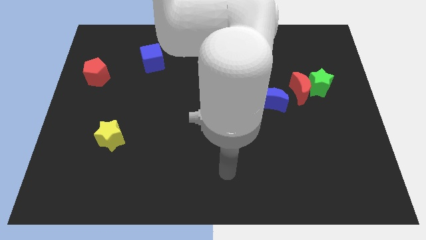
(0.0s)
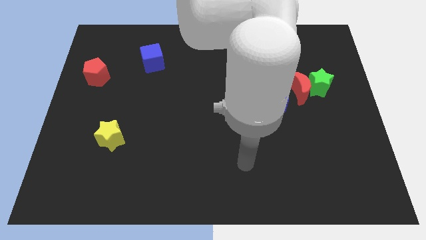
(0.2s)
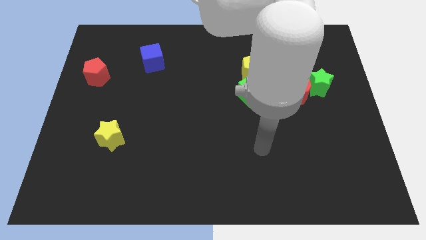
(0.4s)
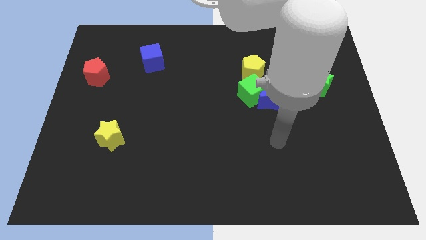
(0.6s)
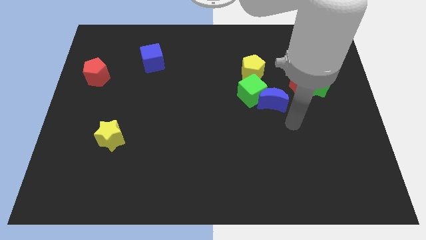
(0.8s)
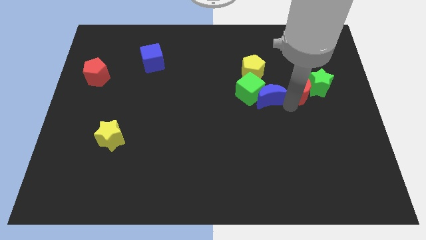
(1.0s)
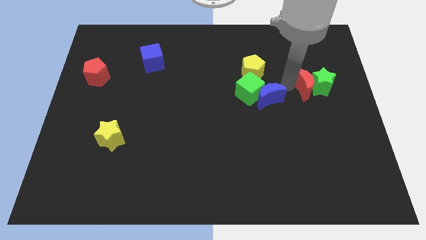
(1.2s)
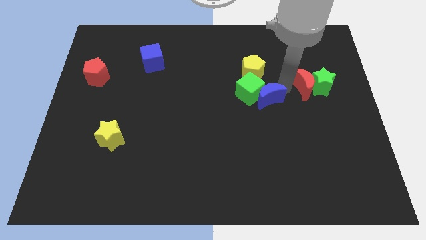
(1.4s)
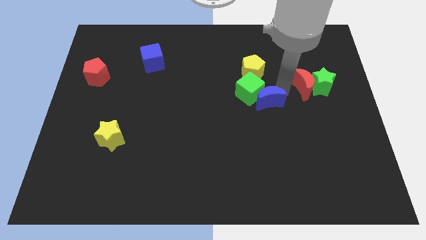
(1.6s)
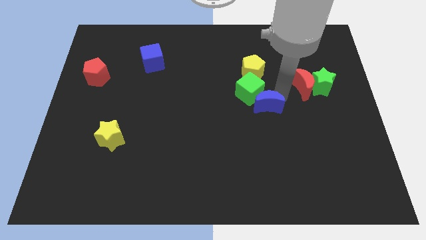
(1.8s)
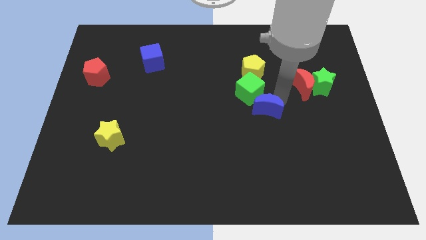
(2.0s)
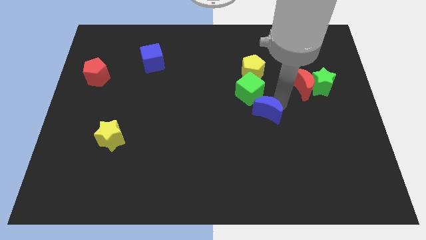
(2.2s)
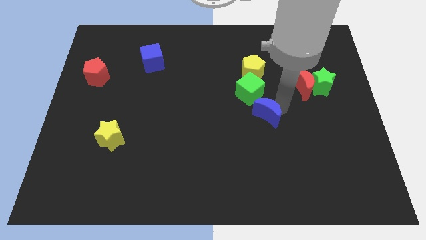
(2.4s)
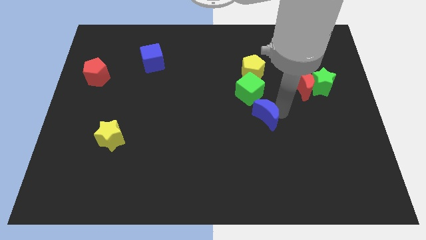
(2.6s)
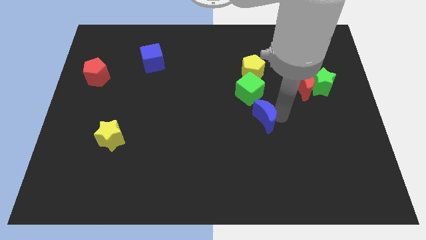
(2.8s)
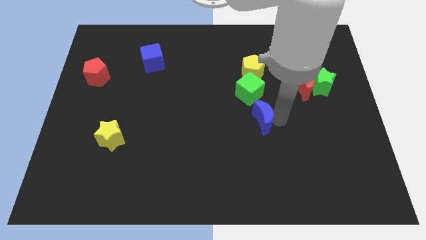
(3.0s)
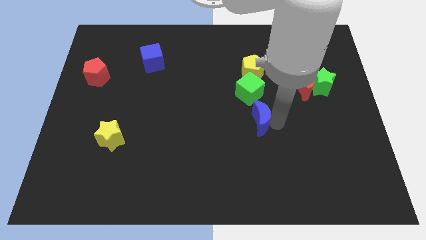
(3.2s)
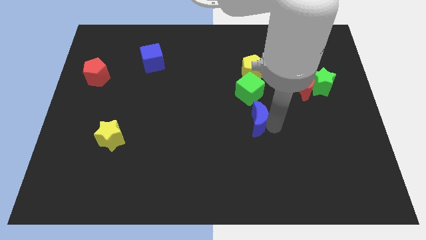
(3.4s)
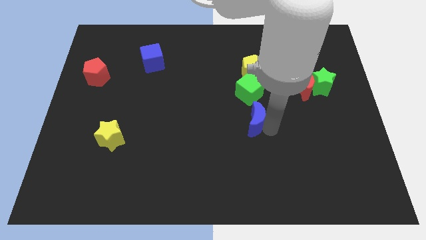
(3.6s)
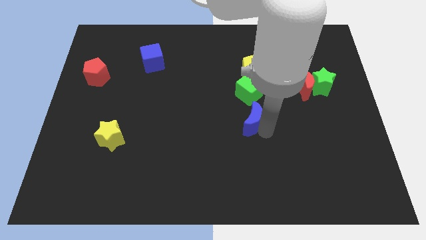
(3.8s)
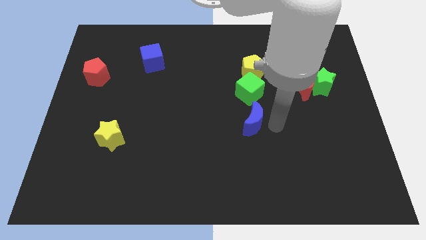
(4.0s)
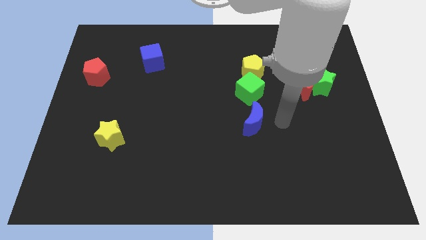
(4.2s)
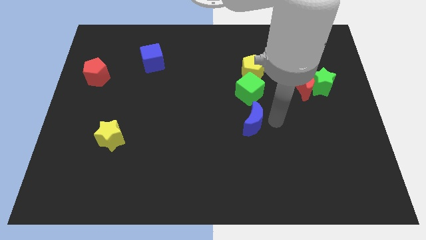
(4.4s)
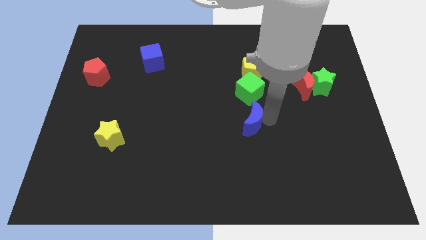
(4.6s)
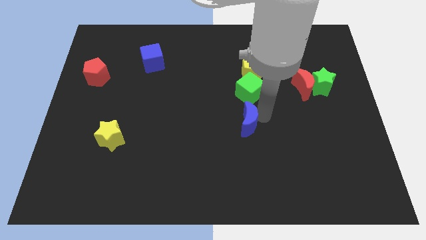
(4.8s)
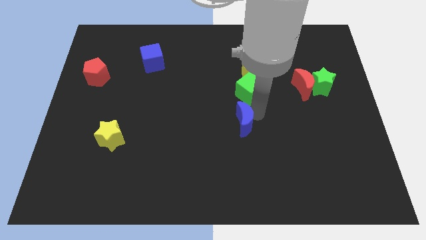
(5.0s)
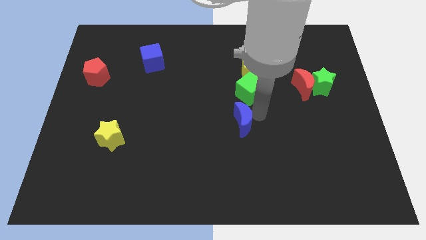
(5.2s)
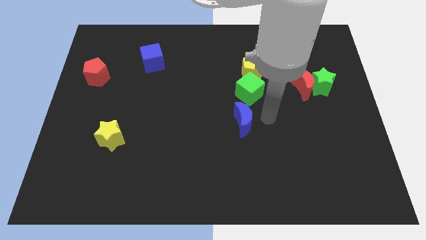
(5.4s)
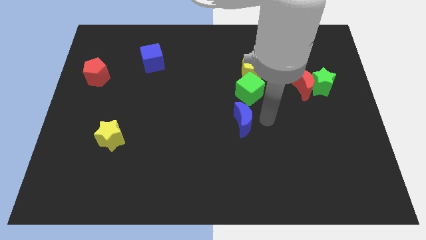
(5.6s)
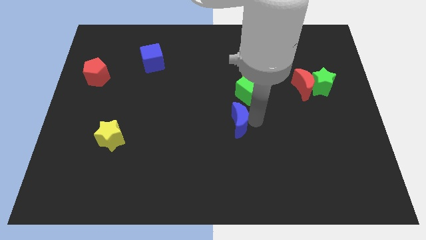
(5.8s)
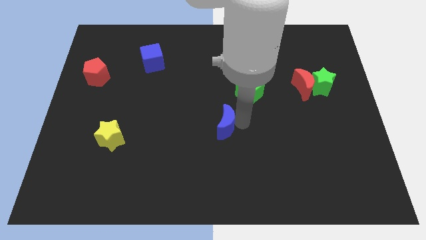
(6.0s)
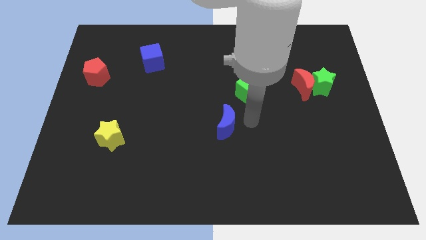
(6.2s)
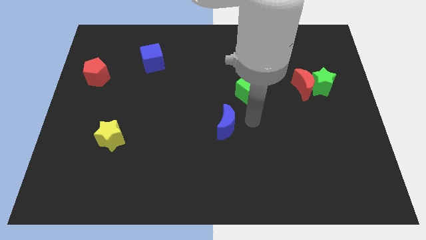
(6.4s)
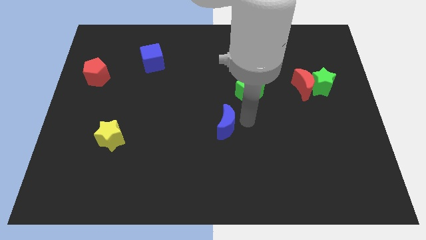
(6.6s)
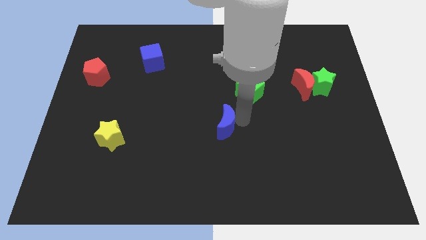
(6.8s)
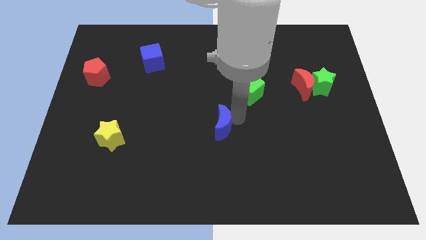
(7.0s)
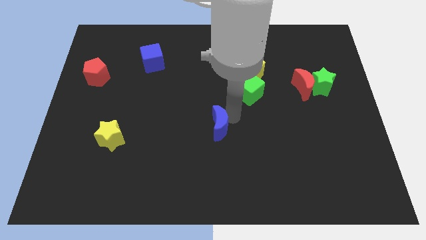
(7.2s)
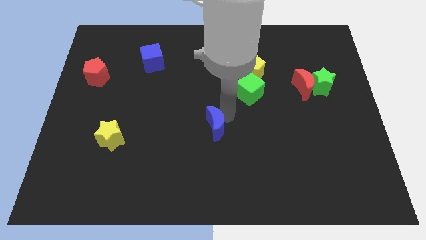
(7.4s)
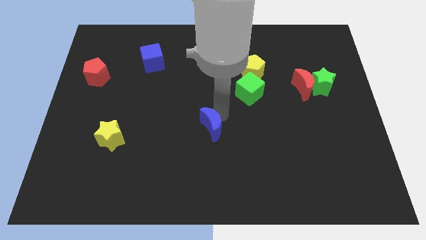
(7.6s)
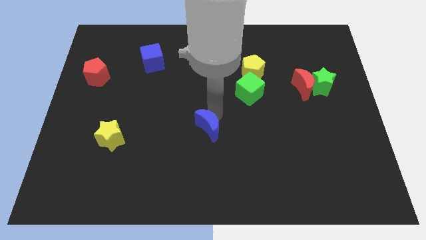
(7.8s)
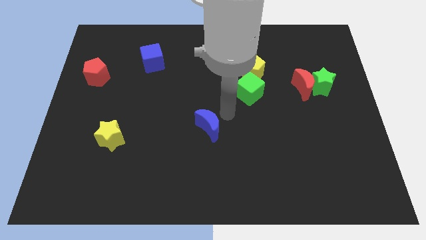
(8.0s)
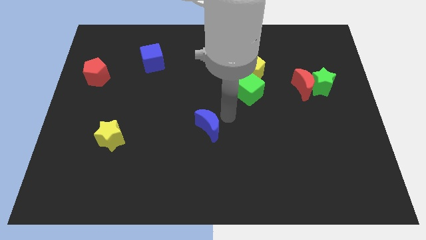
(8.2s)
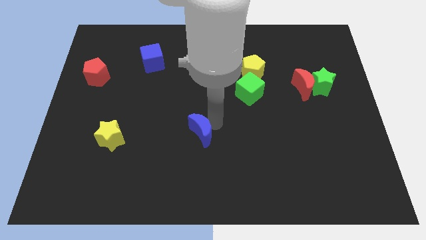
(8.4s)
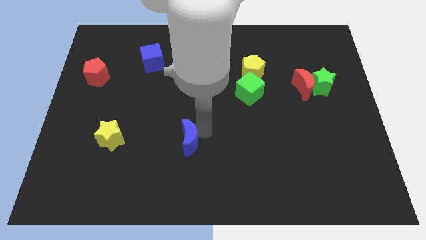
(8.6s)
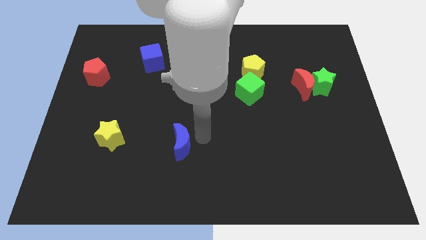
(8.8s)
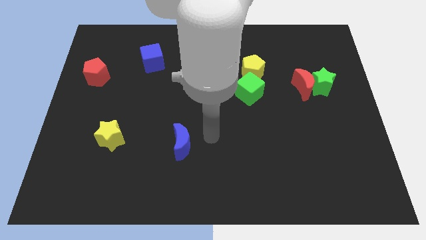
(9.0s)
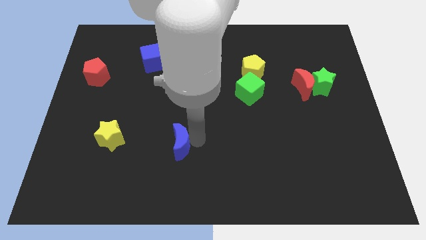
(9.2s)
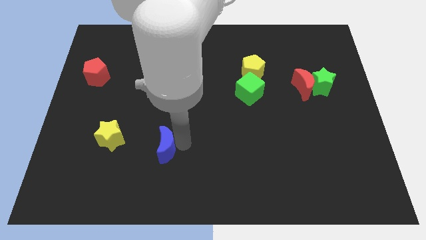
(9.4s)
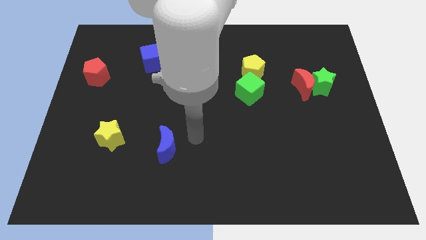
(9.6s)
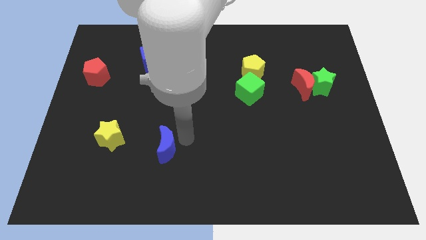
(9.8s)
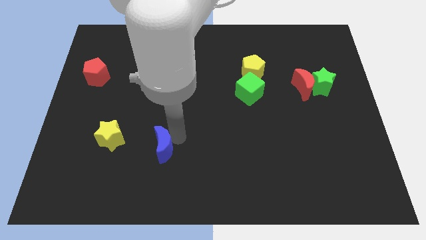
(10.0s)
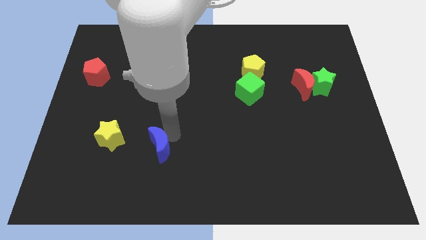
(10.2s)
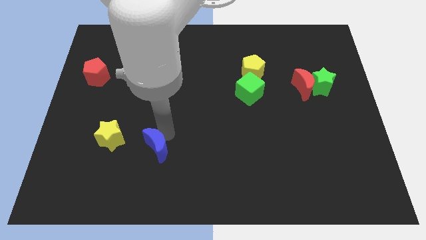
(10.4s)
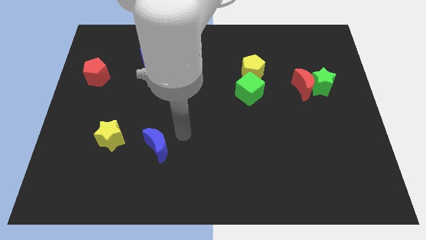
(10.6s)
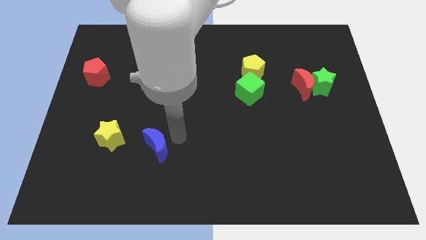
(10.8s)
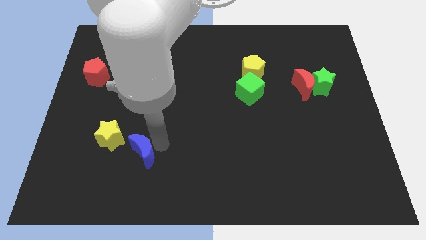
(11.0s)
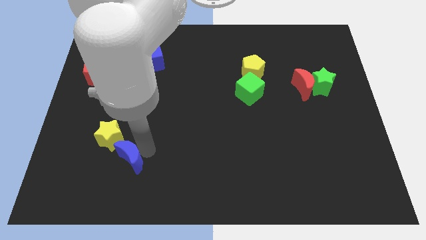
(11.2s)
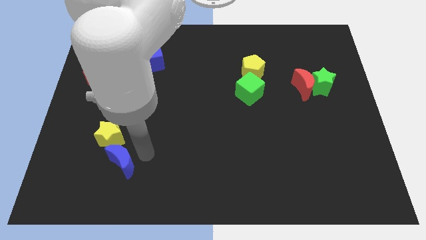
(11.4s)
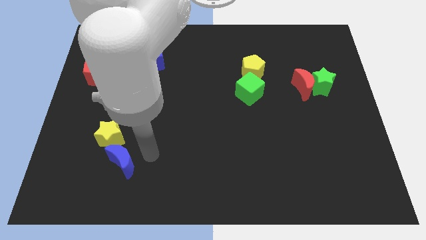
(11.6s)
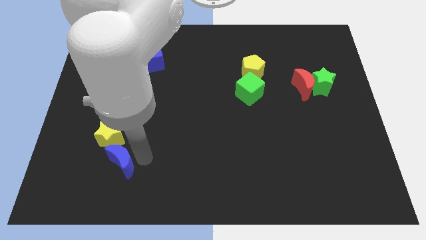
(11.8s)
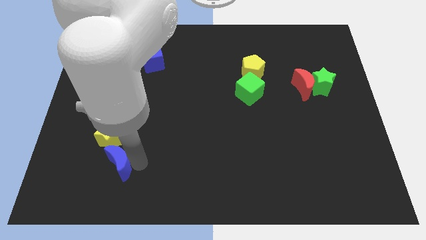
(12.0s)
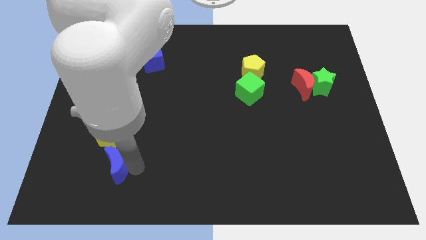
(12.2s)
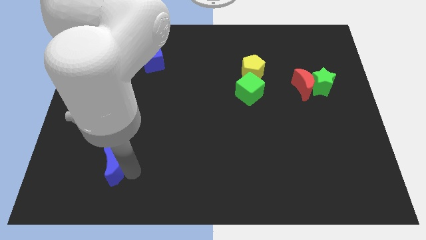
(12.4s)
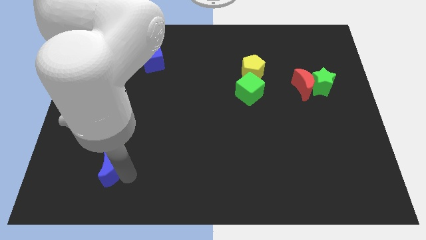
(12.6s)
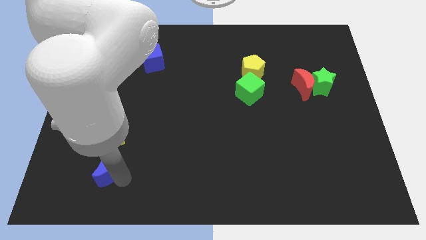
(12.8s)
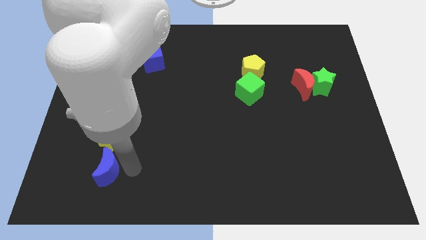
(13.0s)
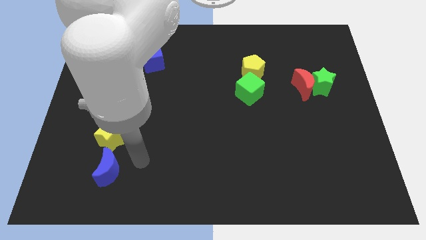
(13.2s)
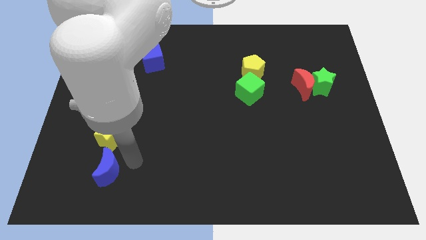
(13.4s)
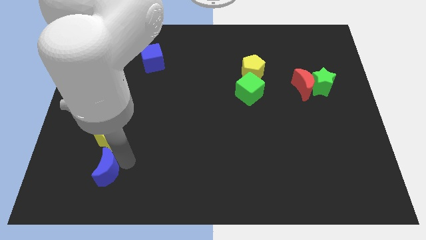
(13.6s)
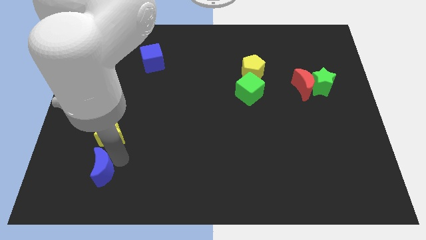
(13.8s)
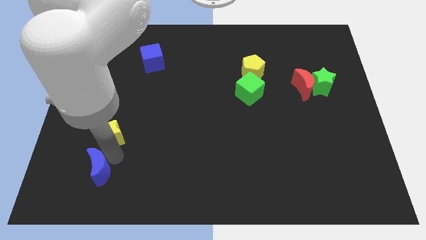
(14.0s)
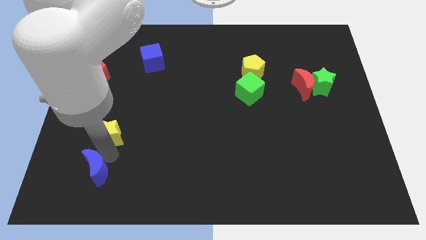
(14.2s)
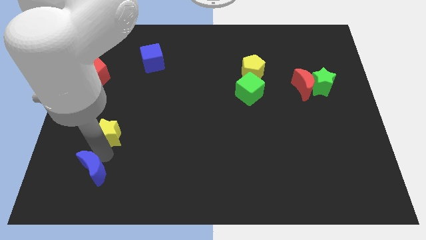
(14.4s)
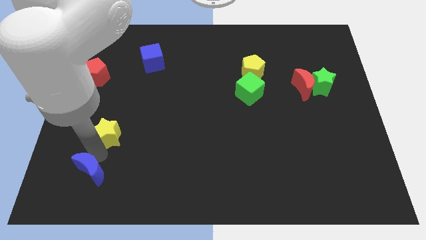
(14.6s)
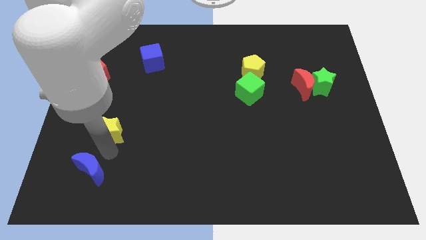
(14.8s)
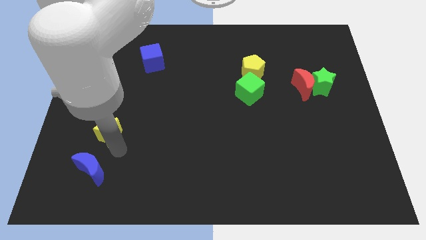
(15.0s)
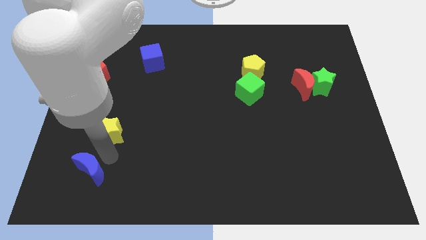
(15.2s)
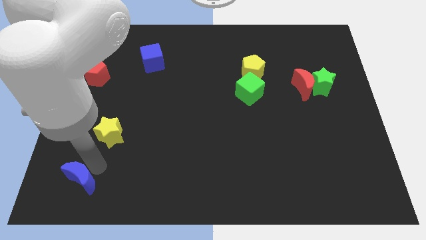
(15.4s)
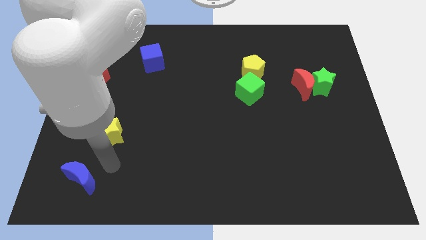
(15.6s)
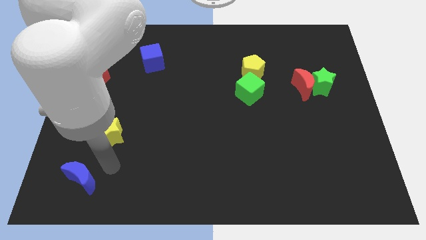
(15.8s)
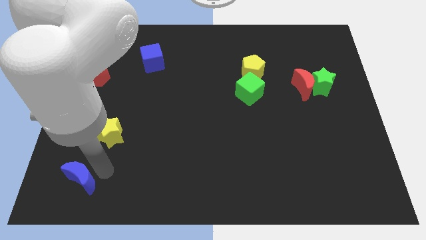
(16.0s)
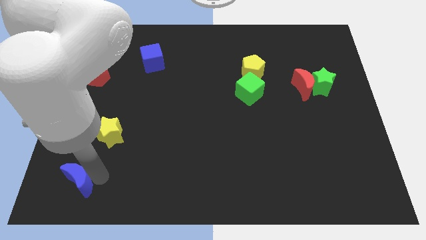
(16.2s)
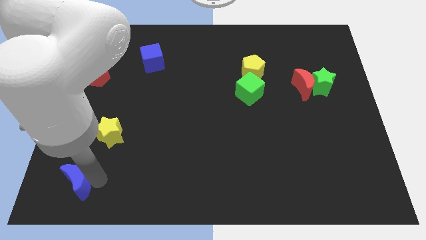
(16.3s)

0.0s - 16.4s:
slide the blue moon to the bottom left corner
